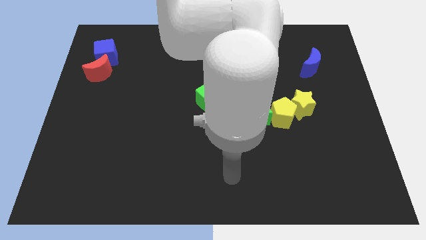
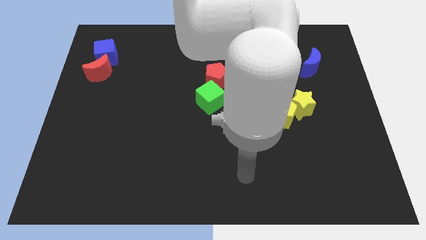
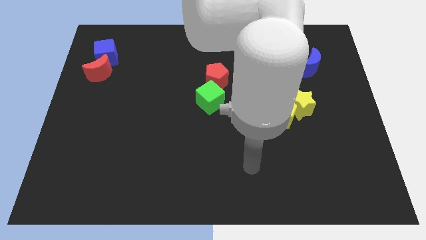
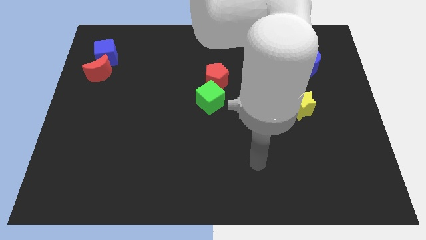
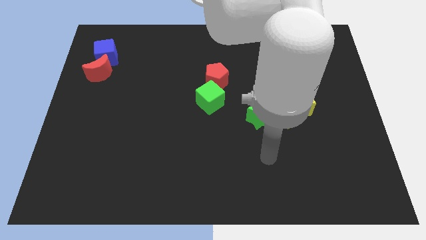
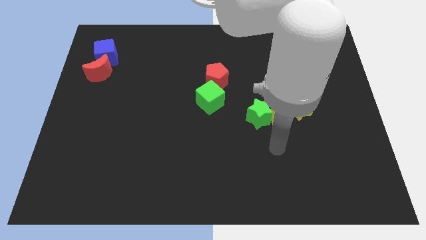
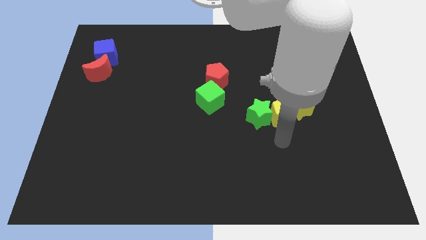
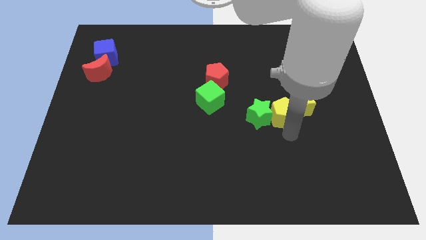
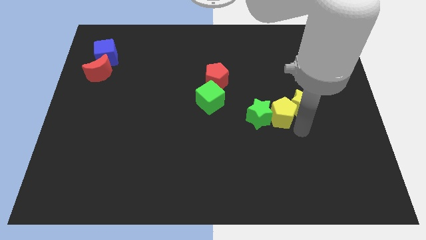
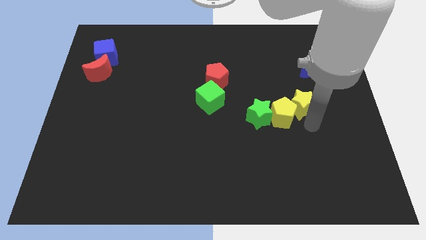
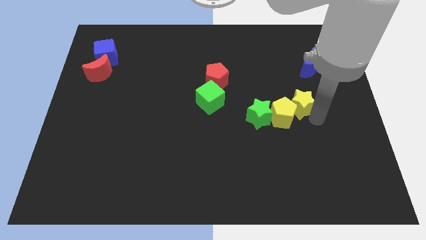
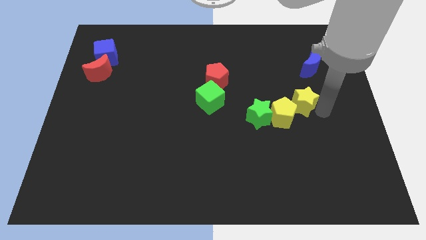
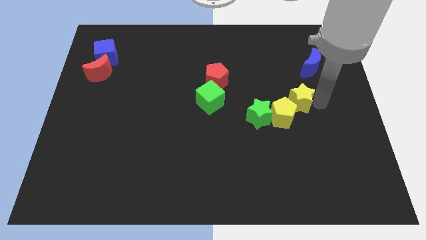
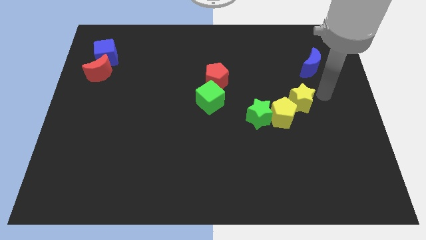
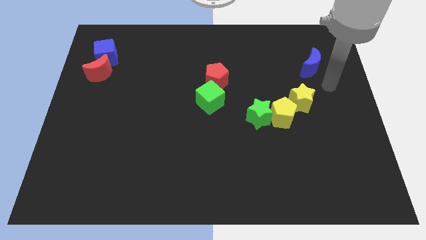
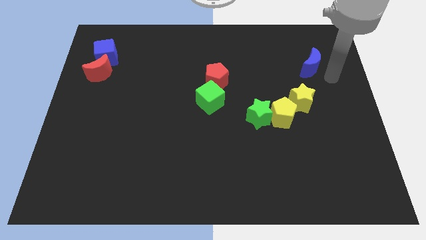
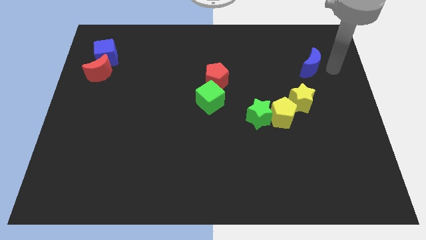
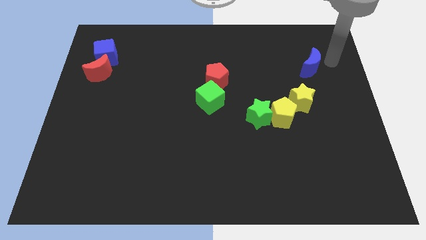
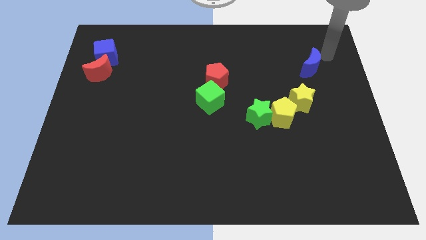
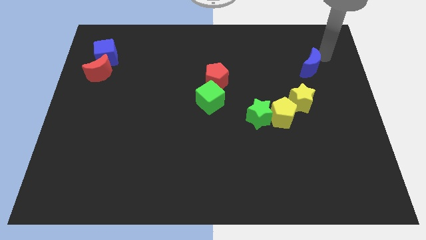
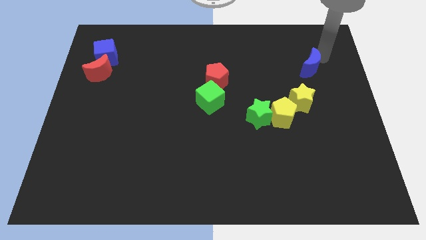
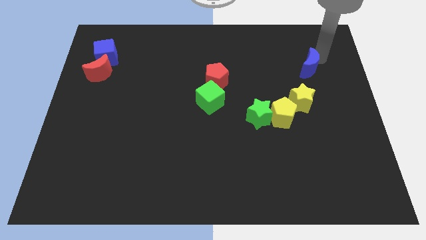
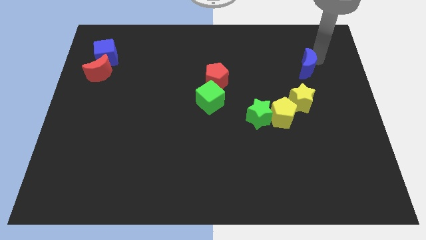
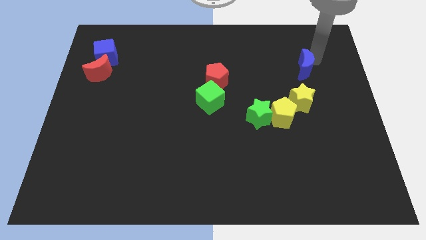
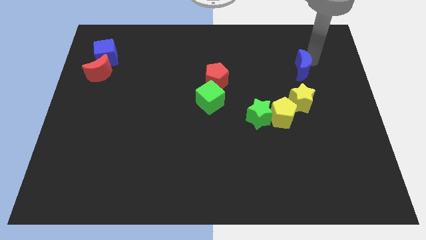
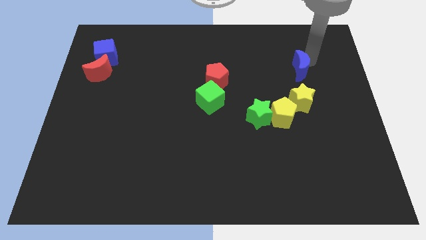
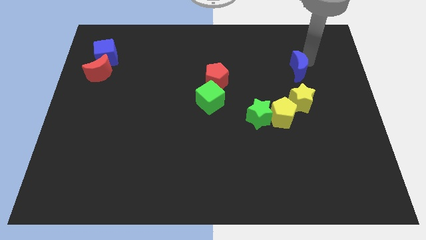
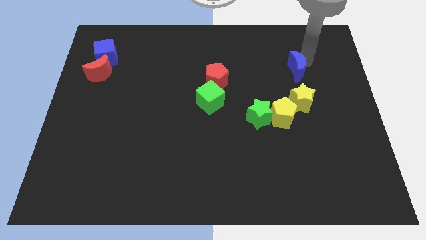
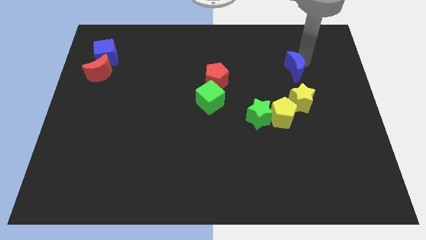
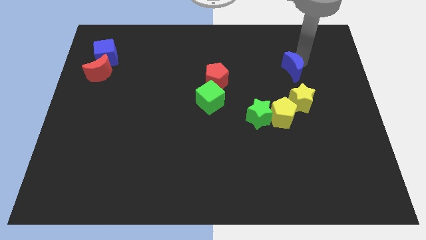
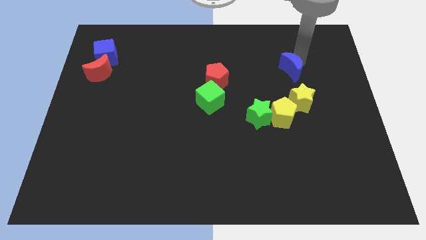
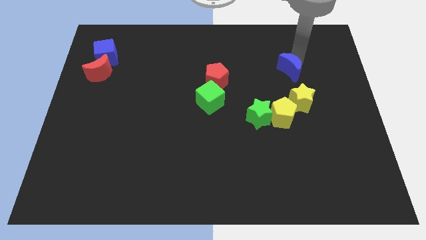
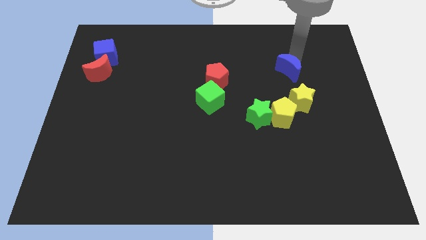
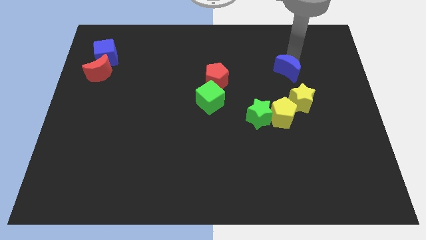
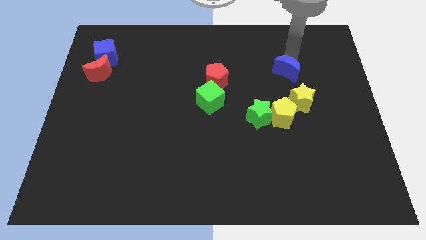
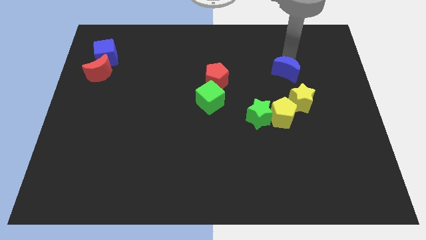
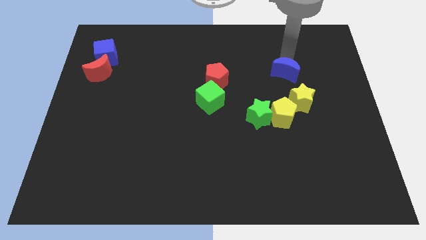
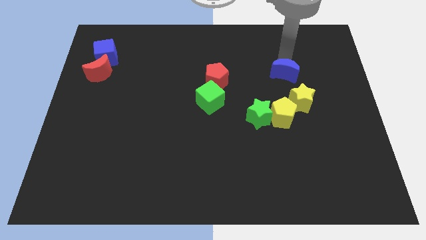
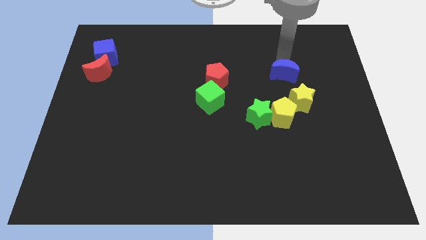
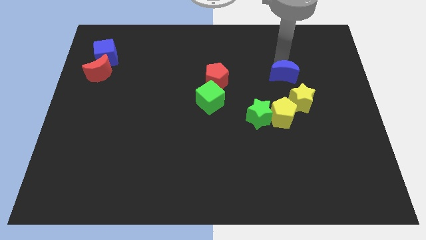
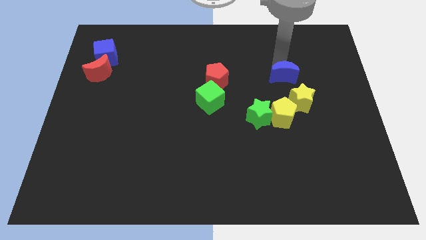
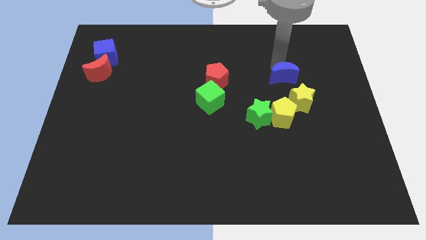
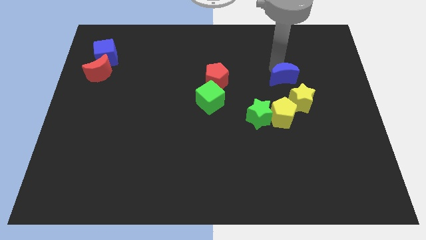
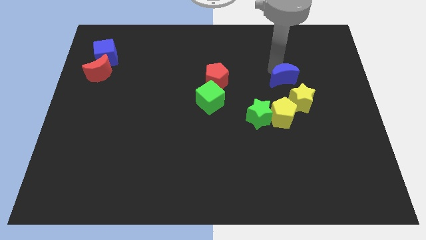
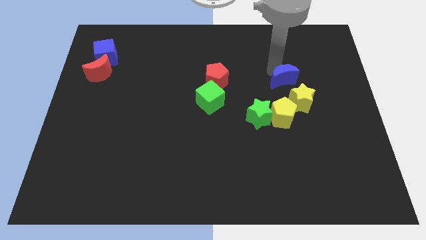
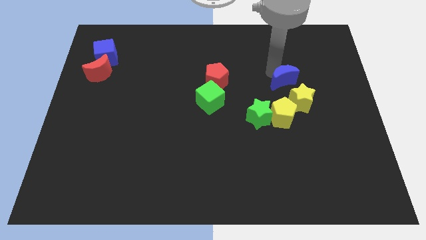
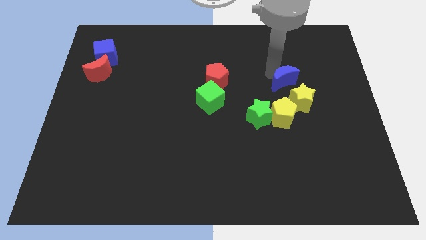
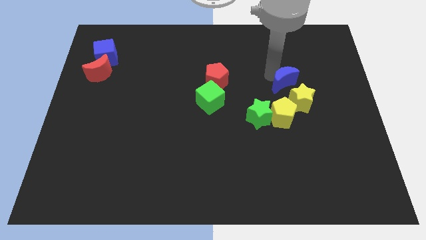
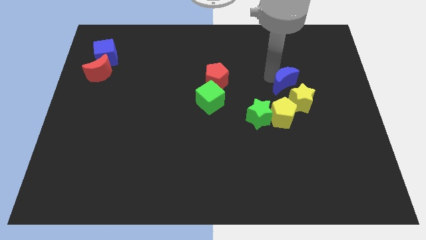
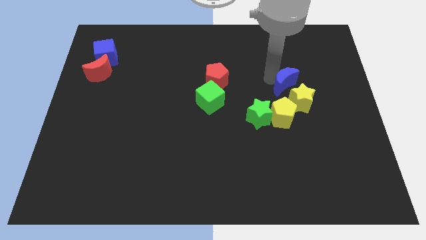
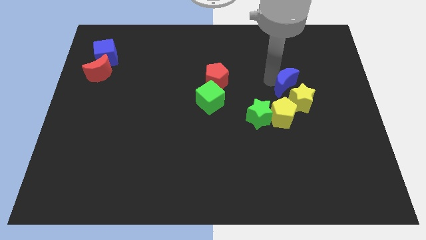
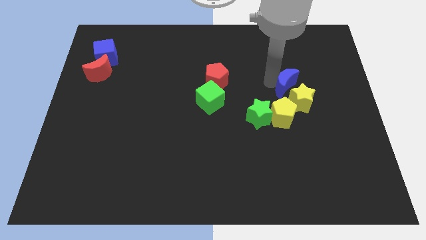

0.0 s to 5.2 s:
slide the blue moon towards the yellow star

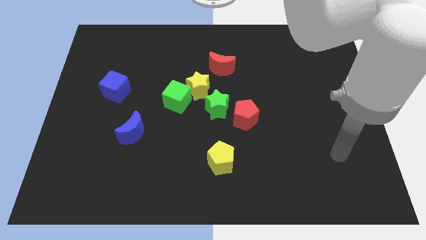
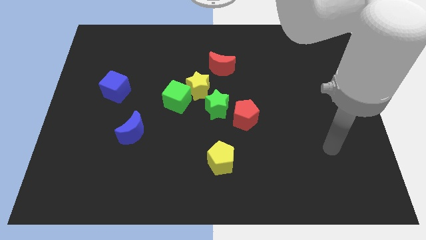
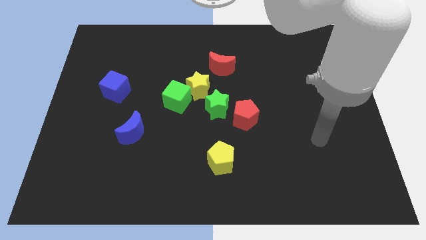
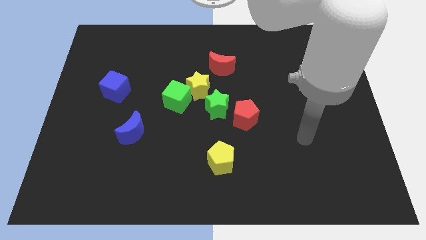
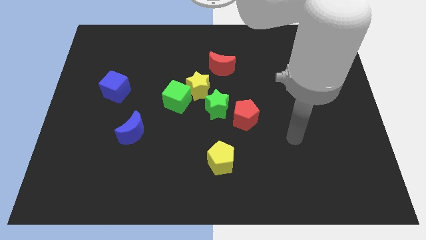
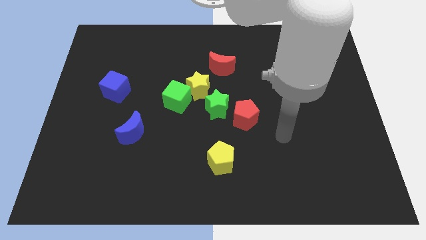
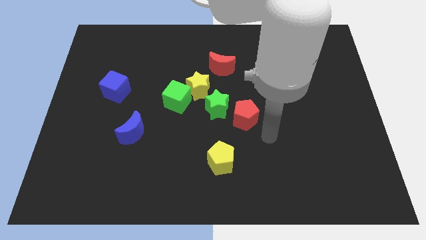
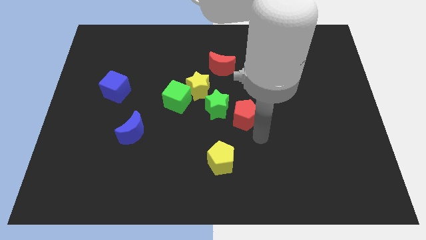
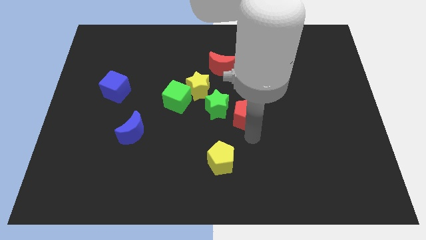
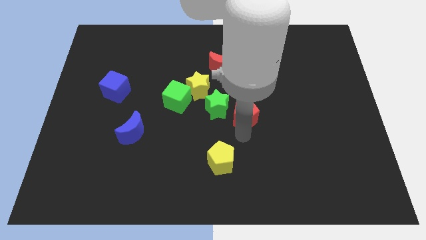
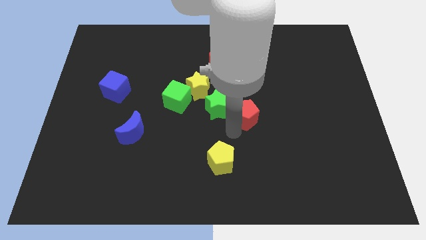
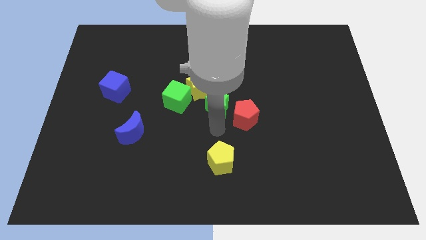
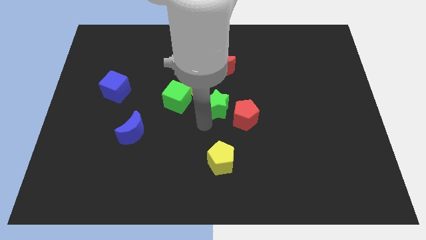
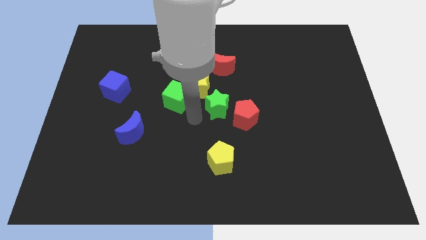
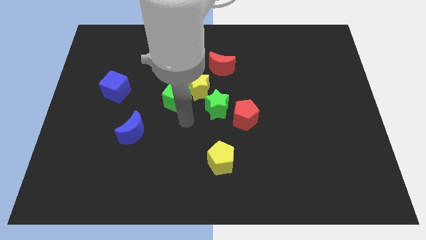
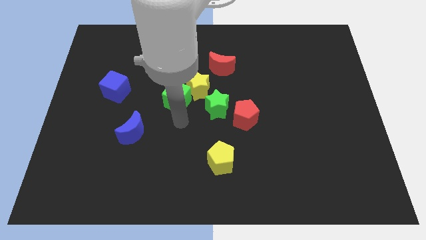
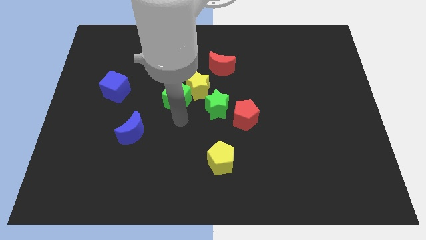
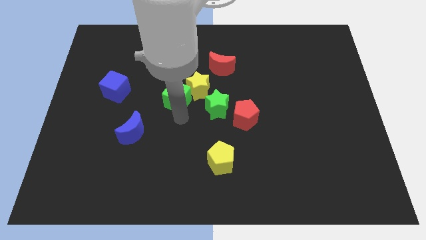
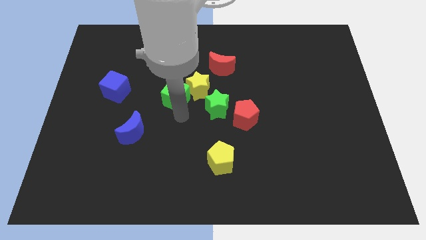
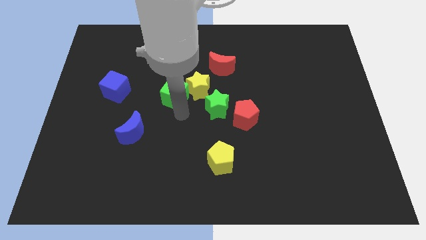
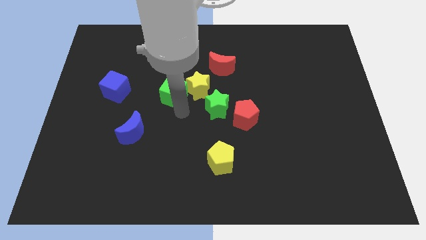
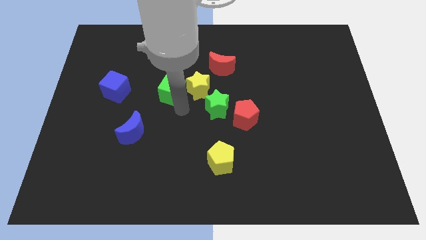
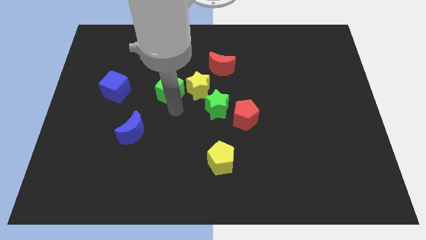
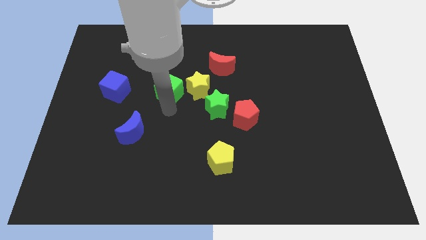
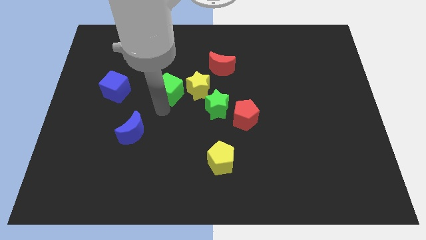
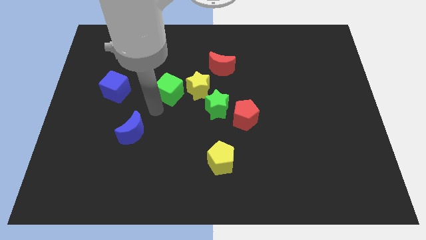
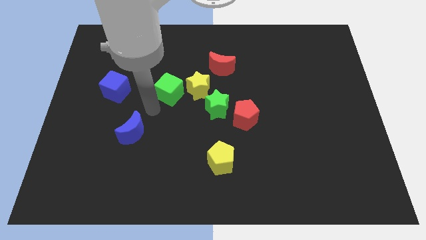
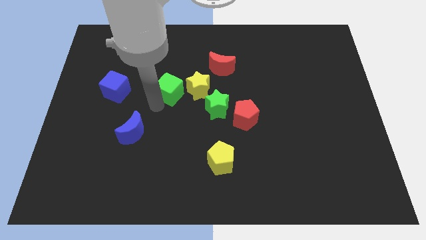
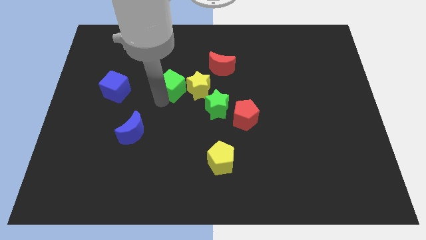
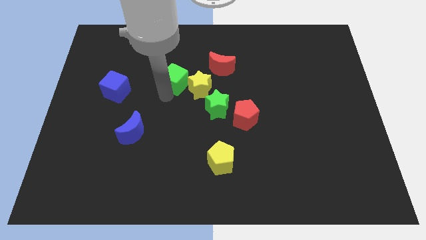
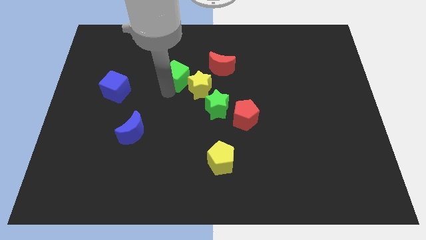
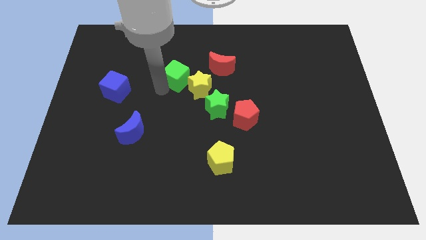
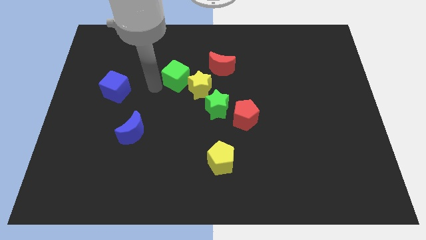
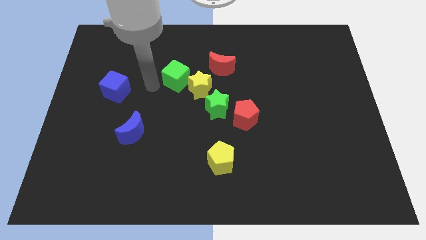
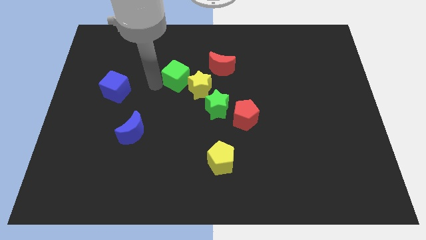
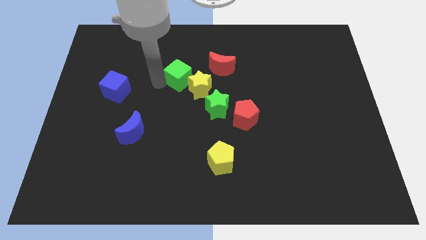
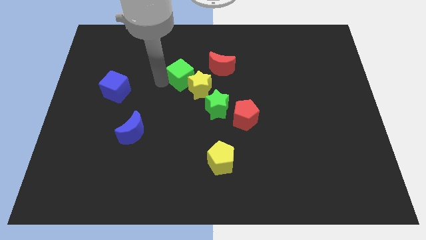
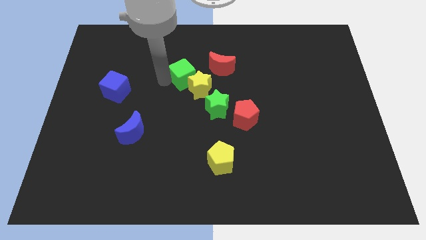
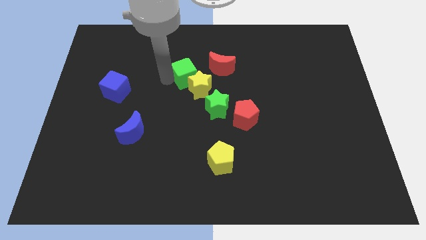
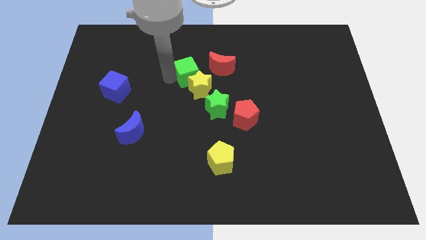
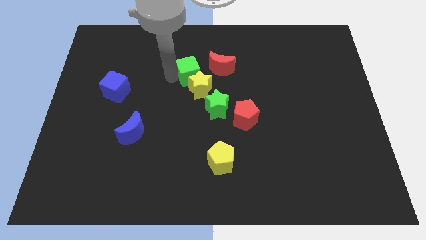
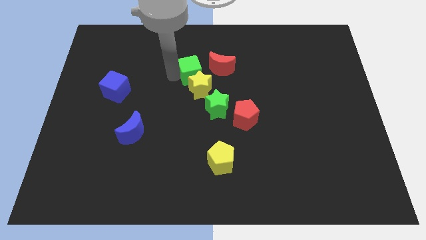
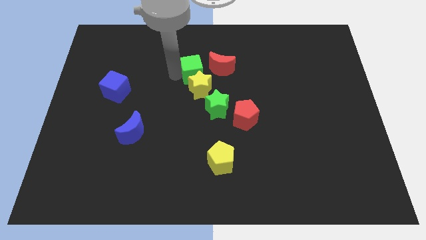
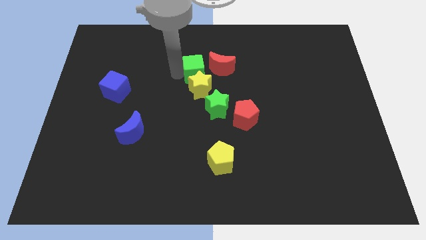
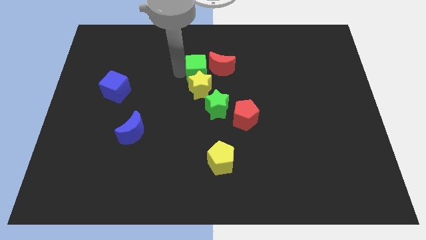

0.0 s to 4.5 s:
put the green cube towards the red moon
